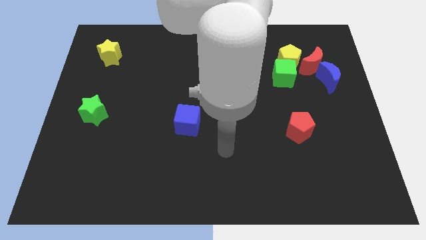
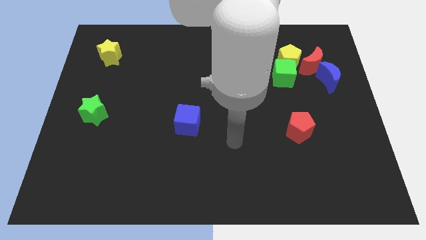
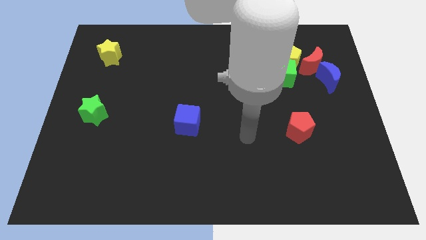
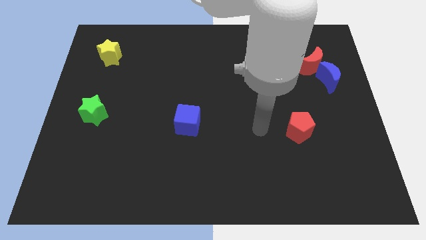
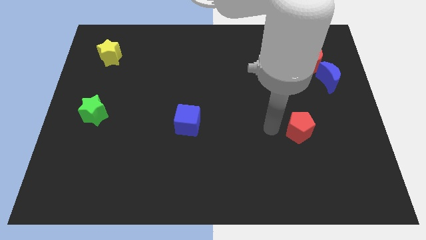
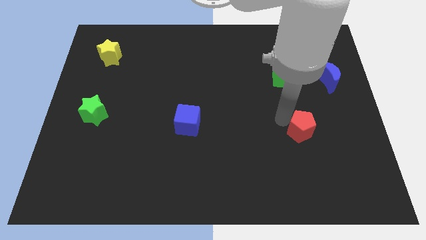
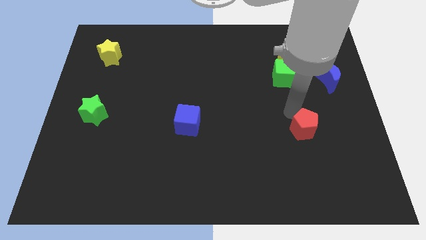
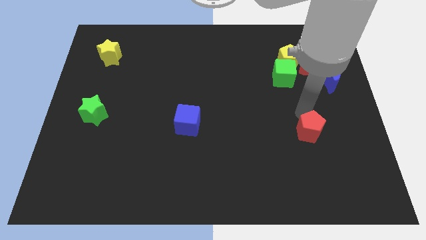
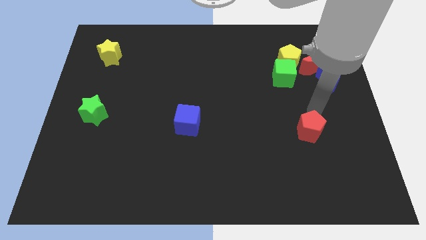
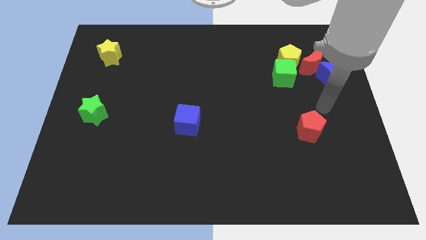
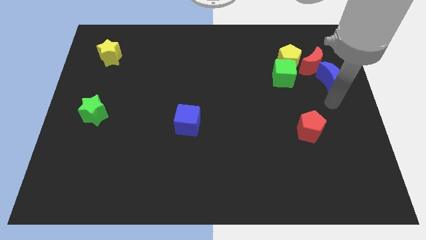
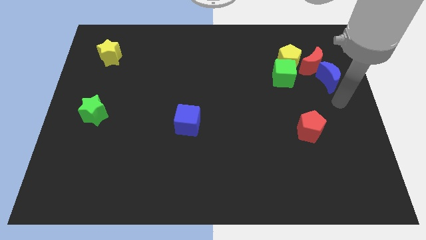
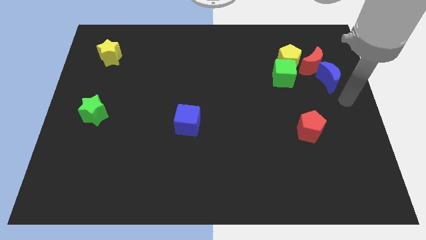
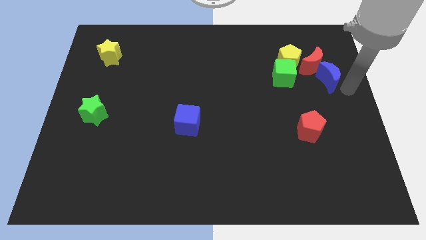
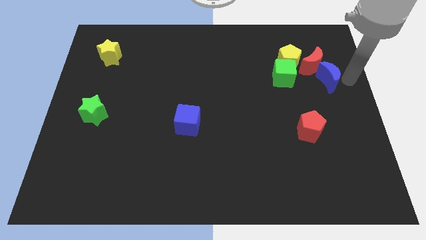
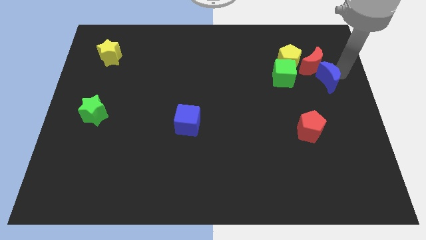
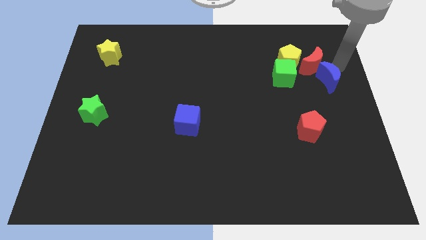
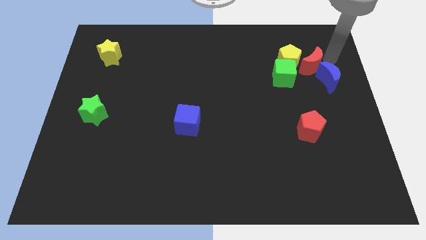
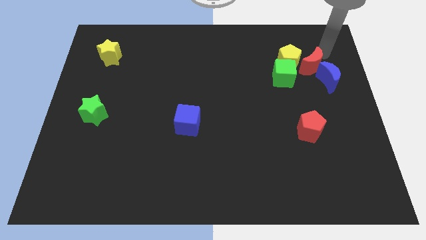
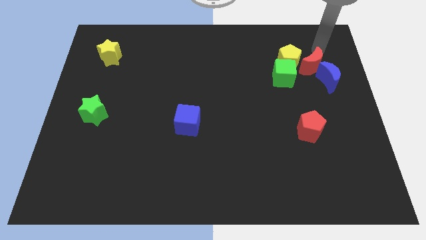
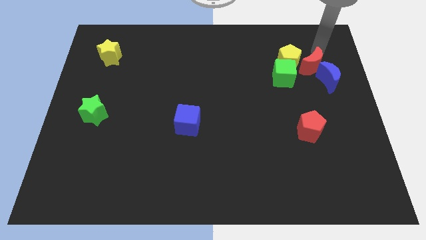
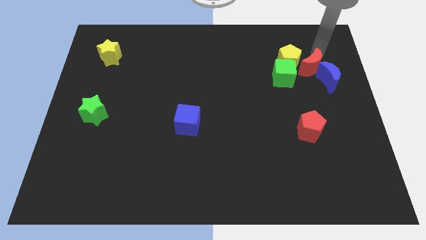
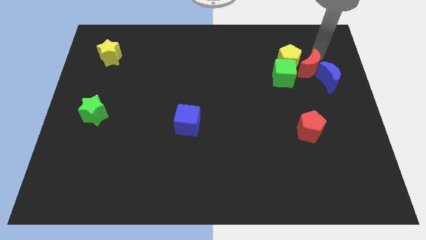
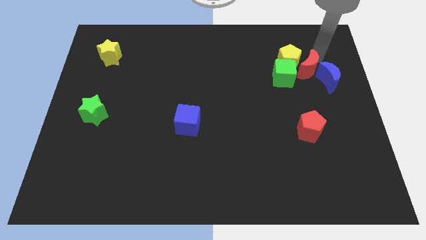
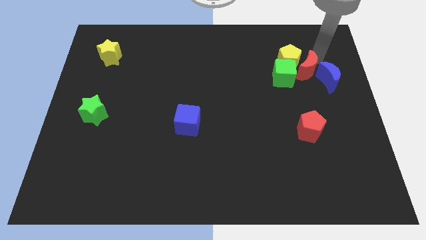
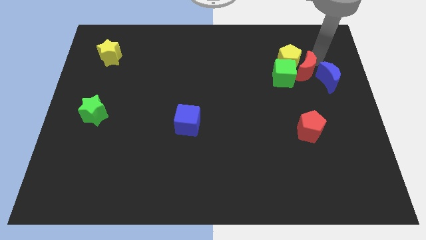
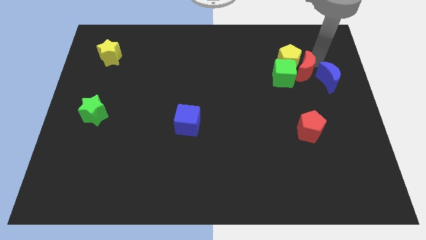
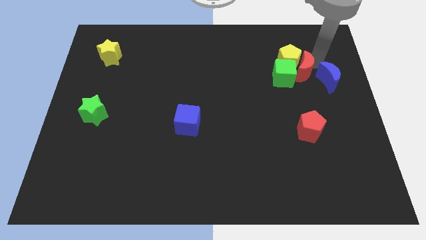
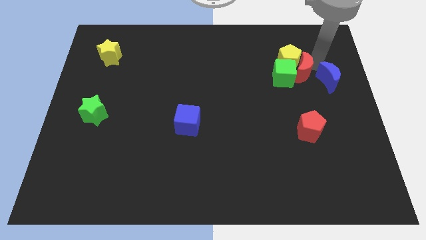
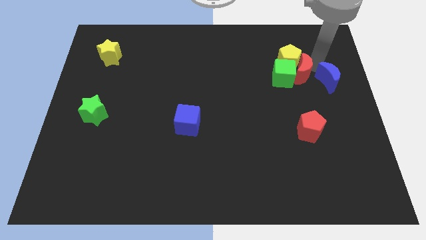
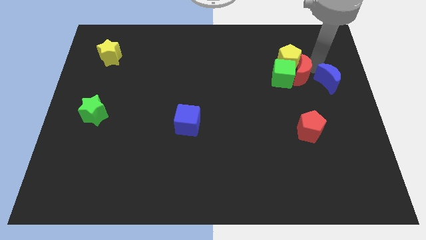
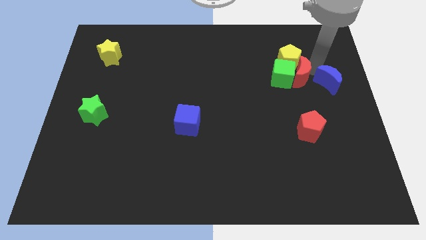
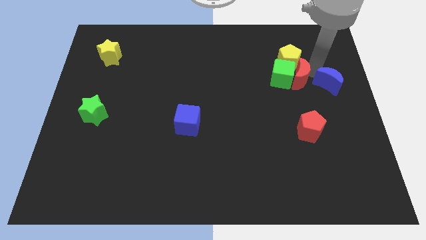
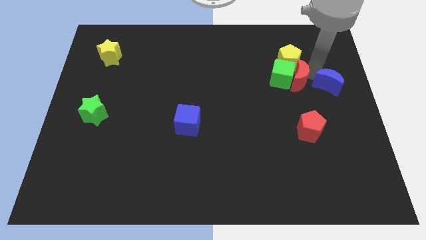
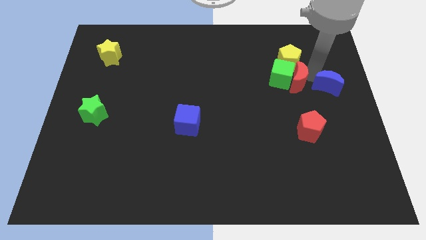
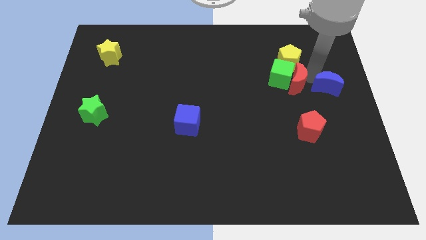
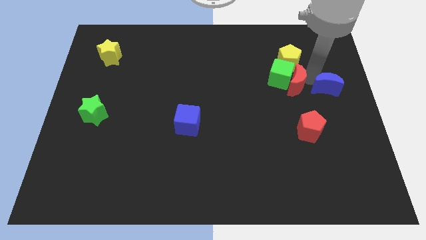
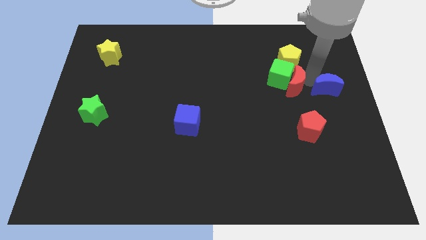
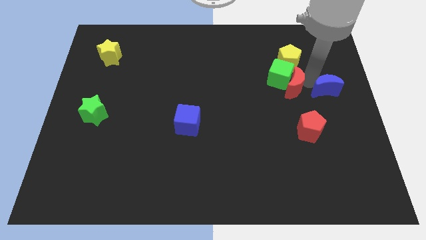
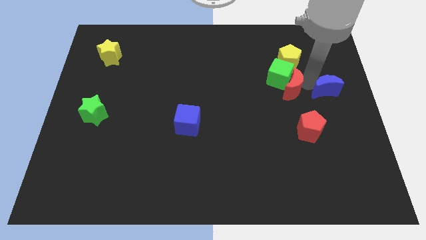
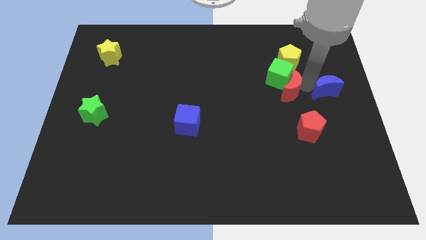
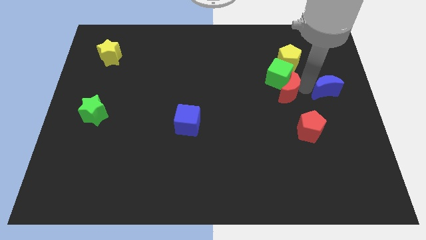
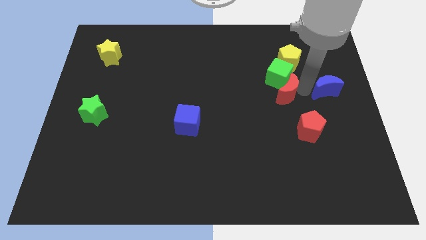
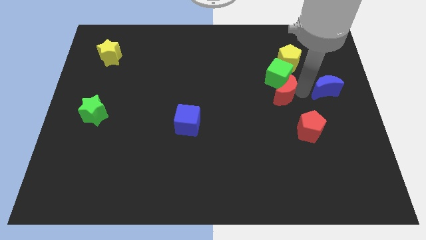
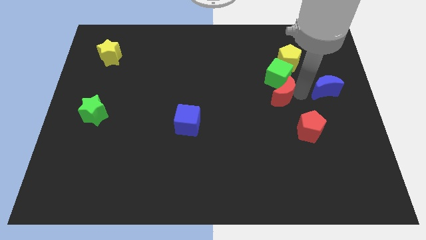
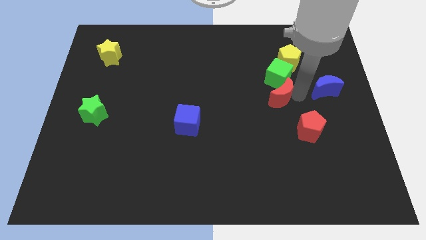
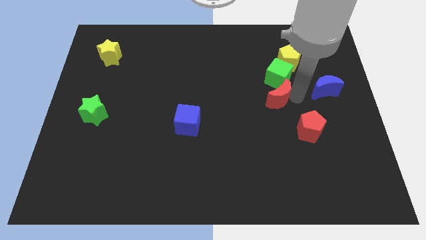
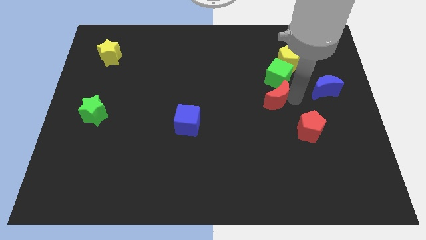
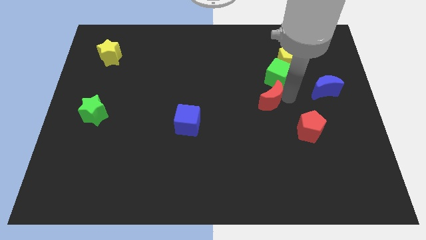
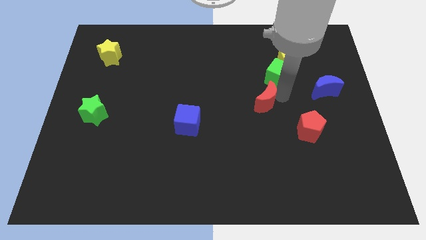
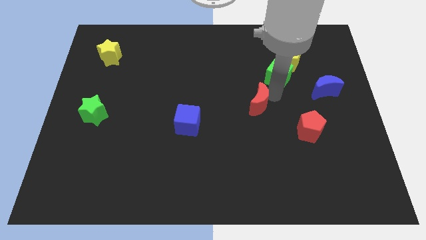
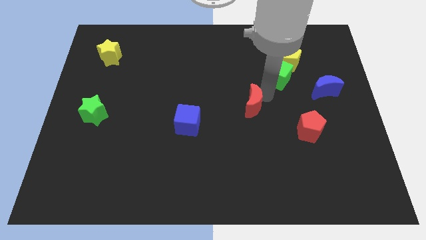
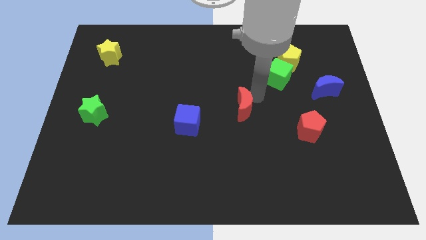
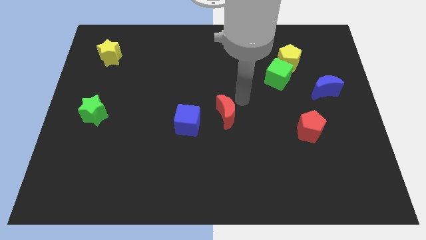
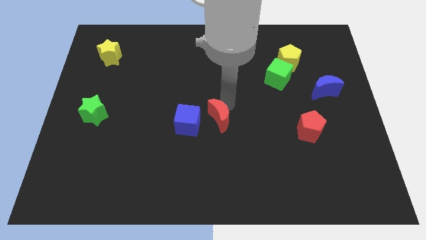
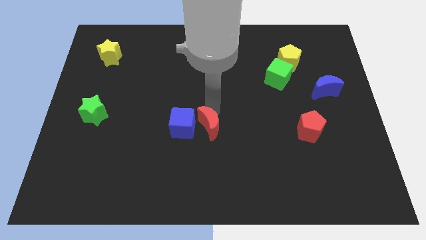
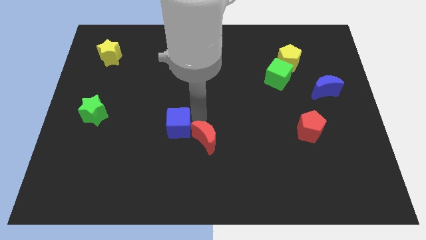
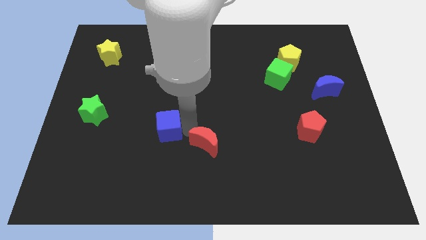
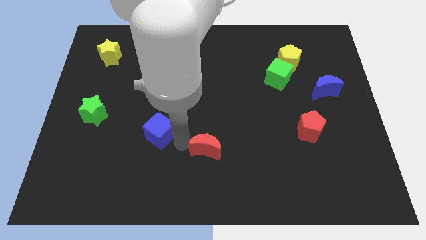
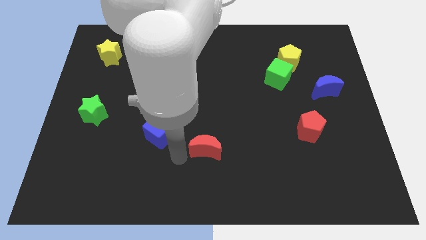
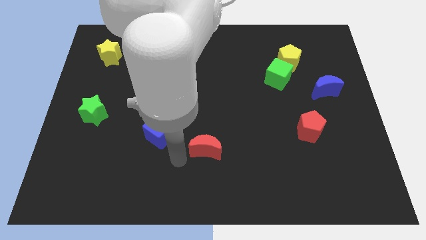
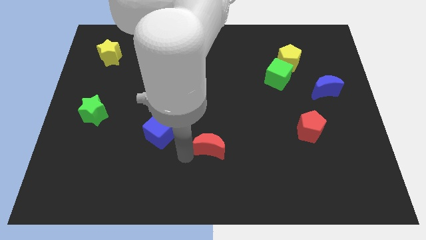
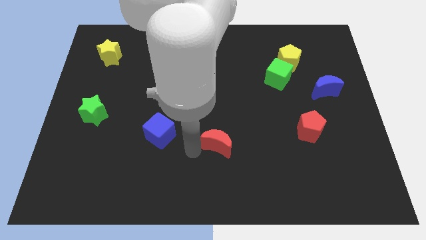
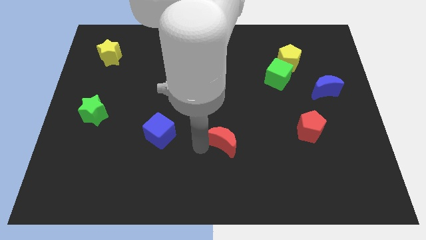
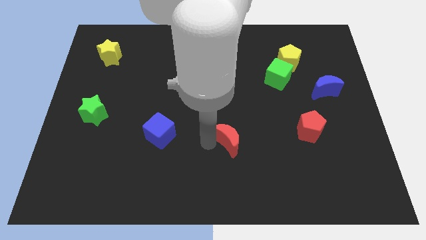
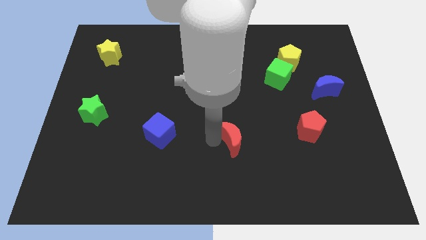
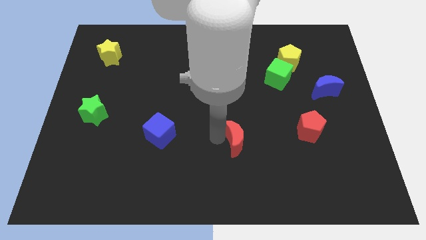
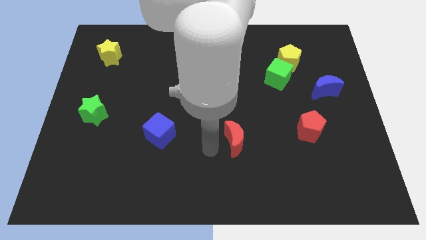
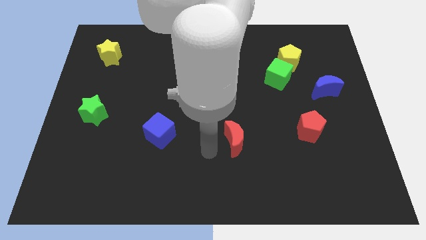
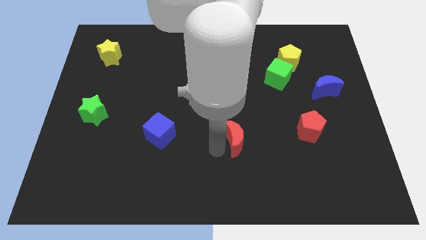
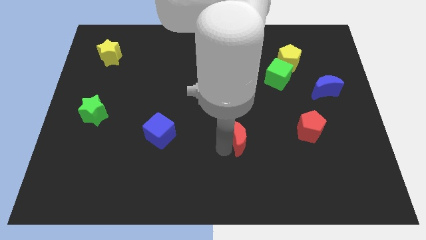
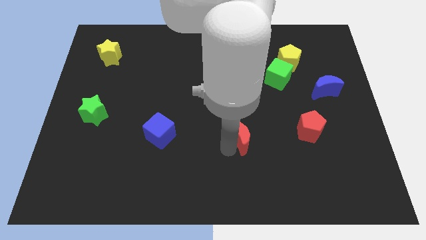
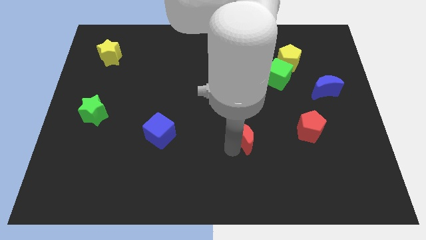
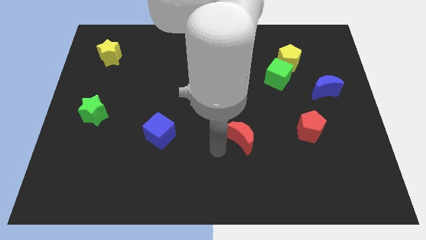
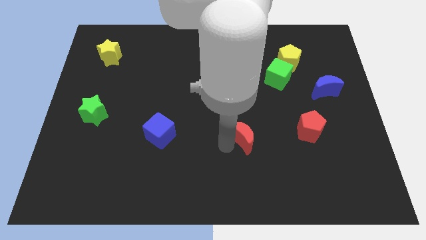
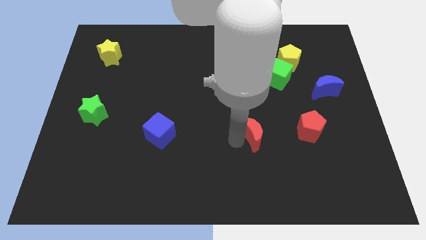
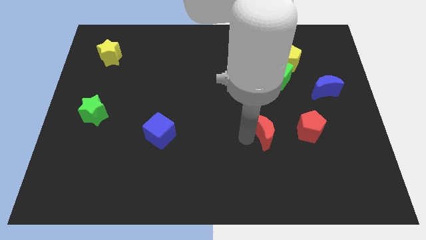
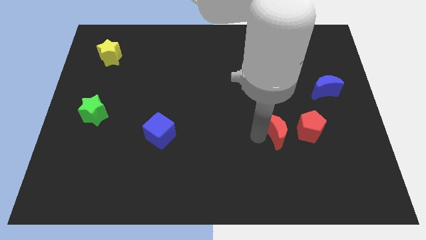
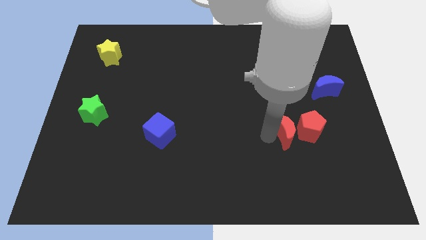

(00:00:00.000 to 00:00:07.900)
move the red moon towards the red pentagon
